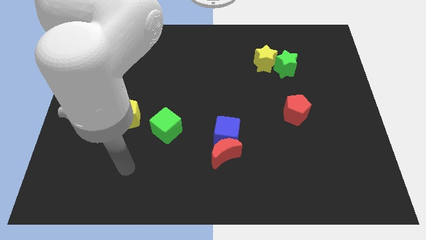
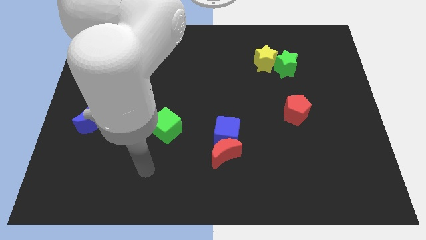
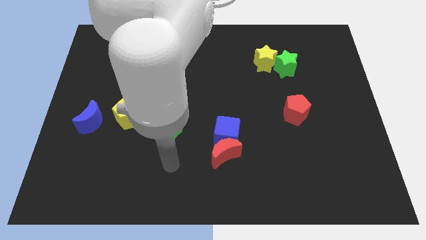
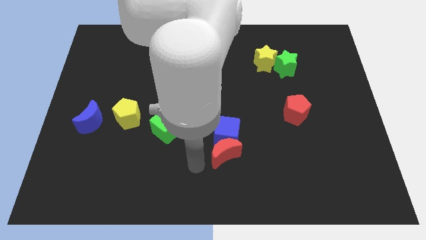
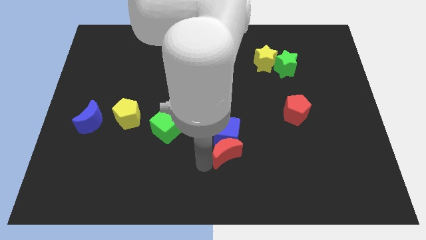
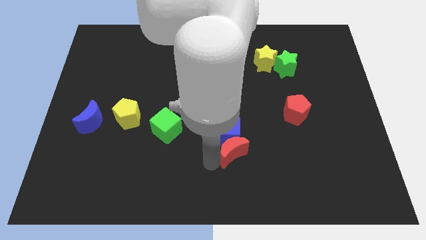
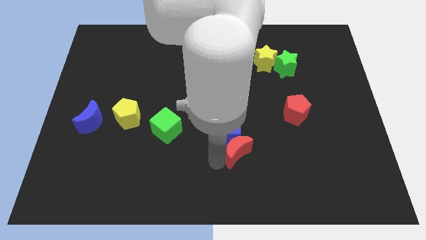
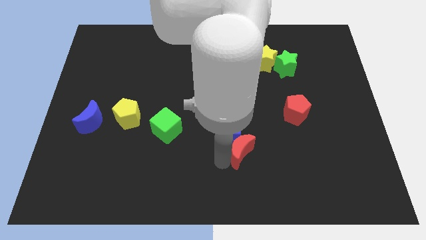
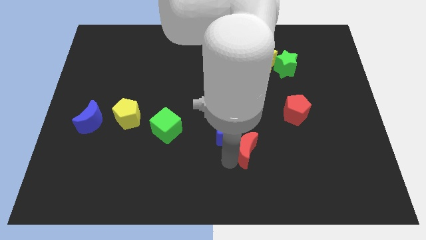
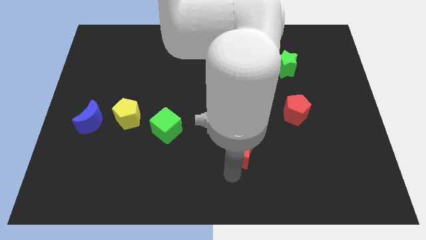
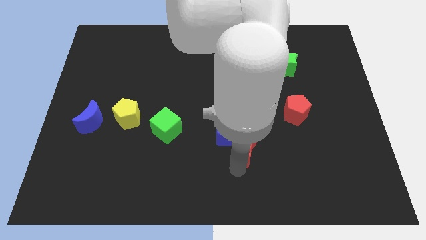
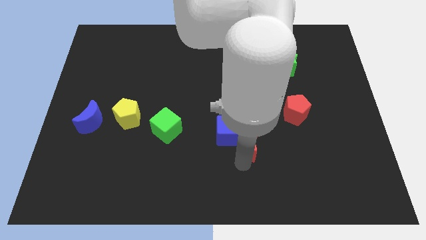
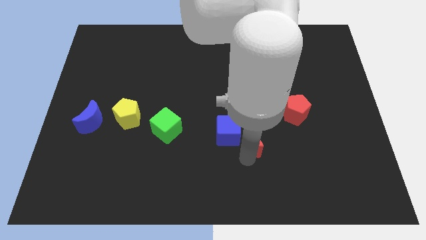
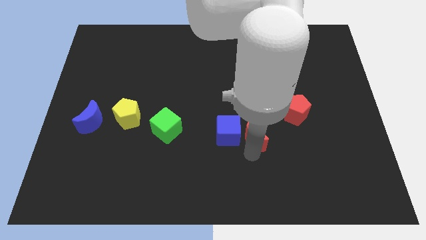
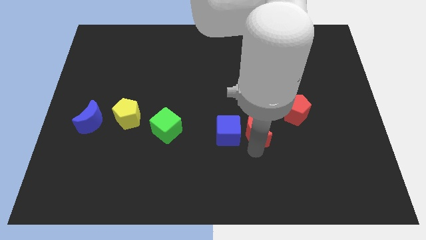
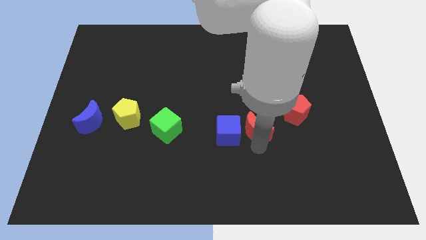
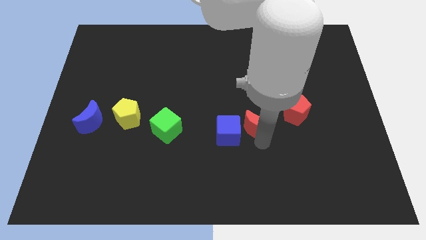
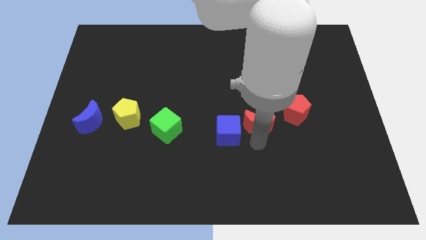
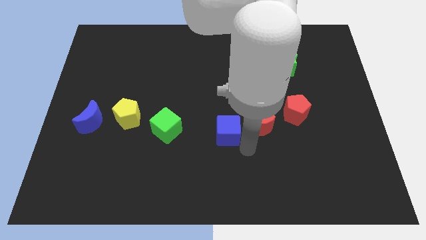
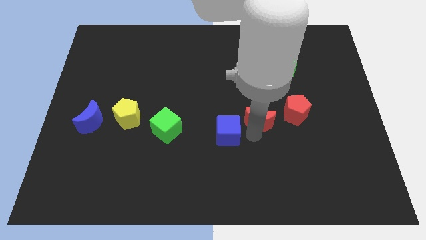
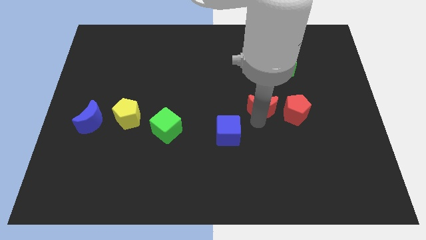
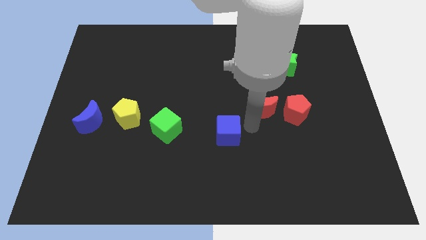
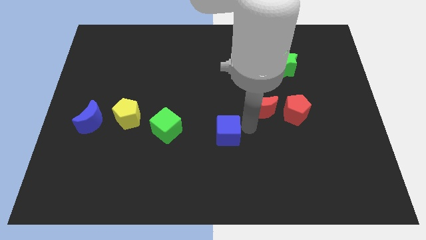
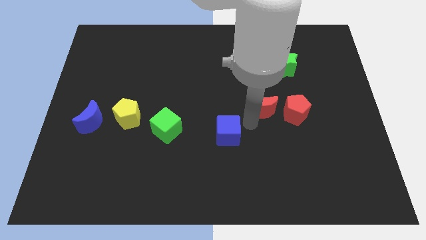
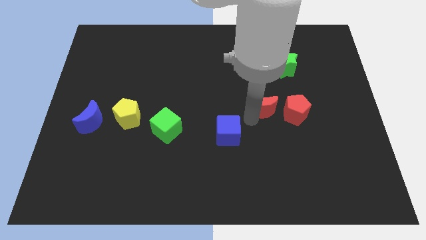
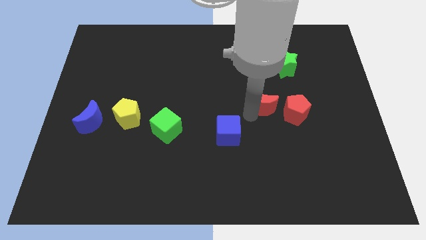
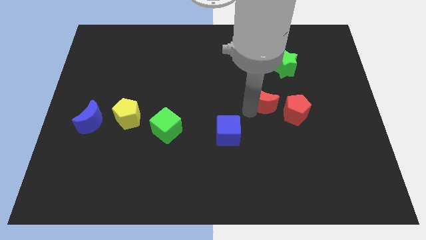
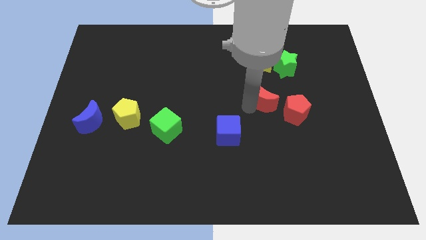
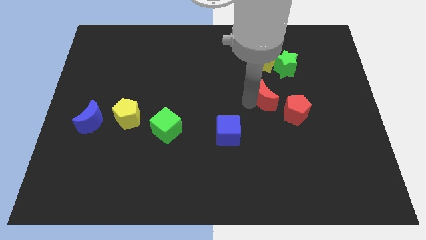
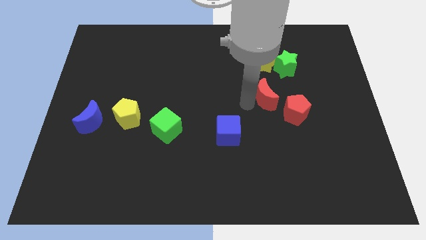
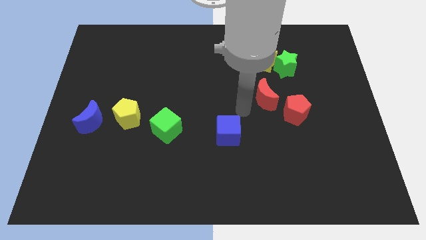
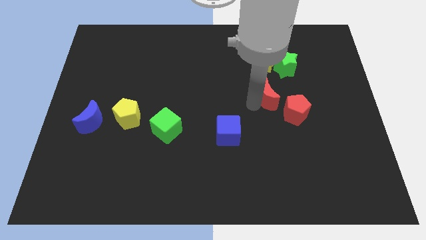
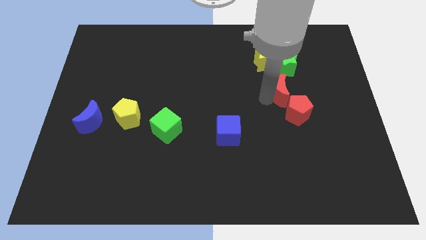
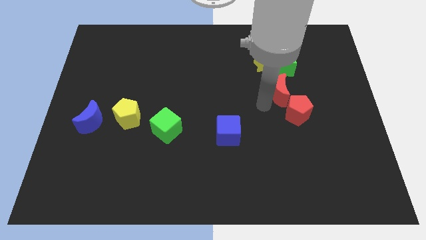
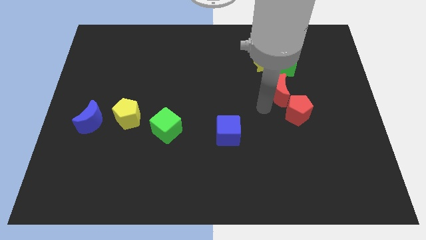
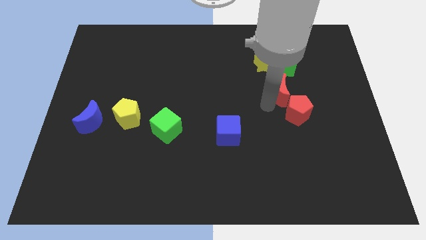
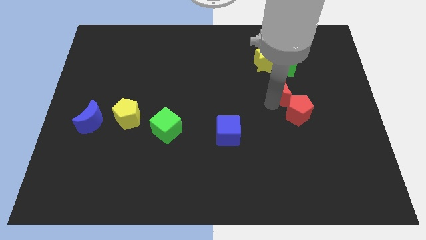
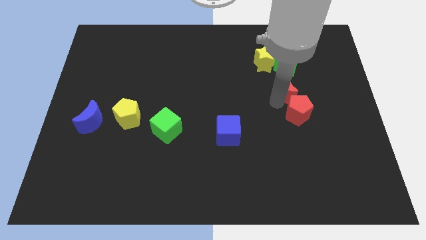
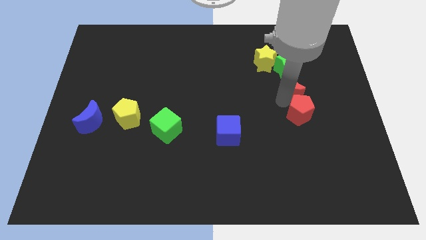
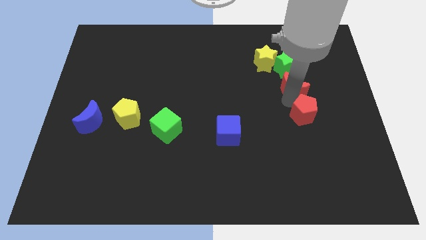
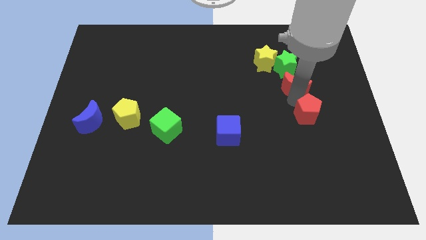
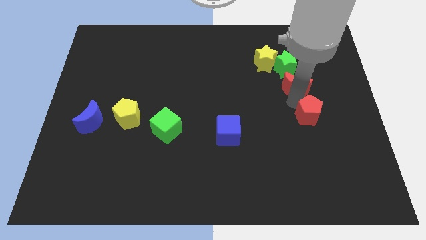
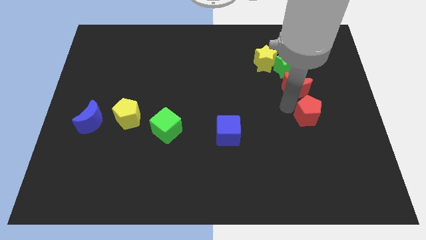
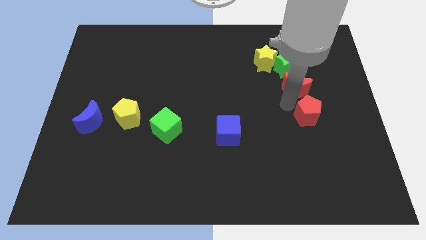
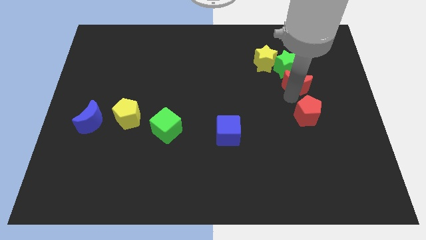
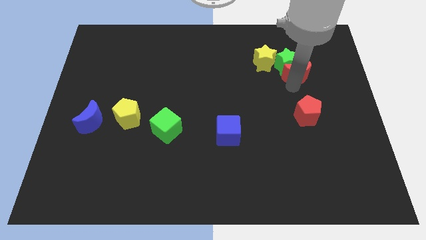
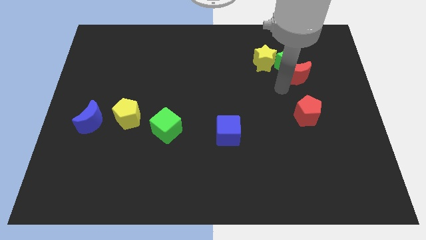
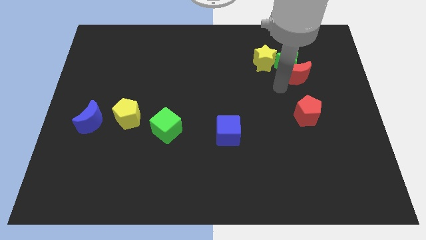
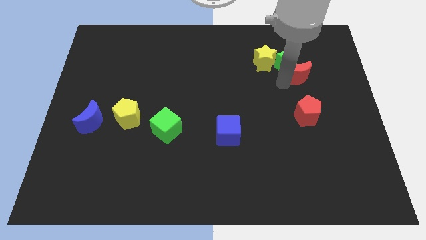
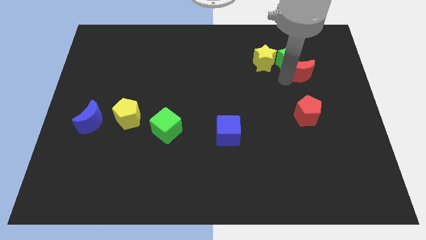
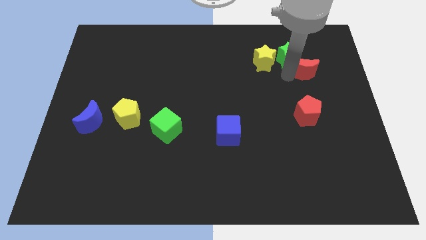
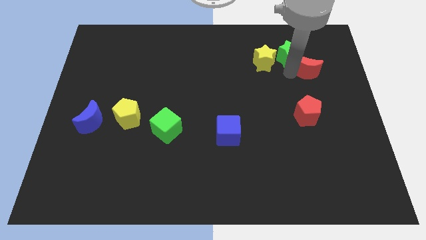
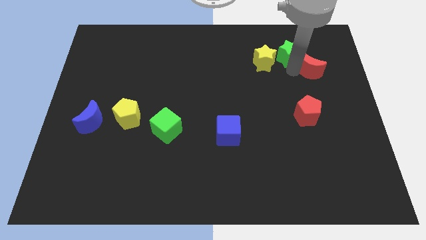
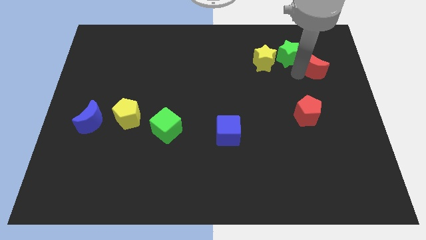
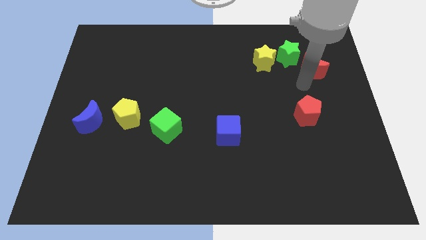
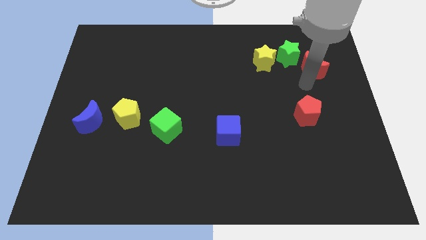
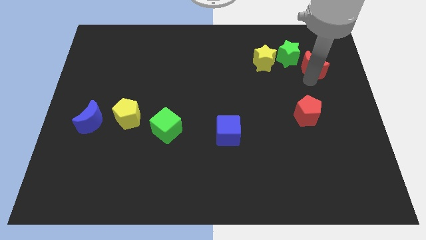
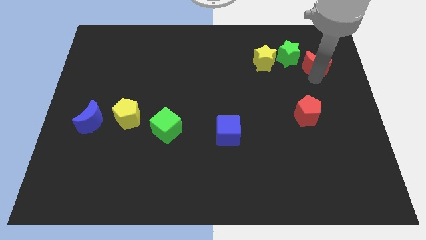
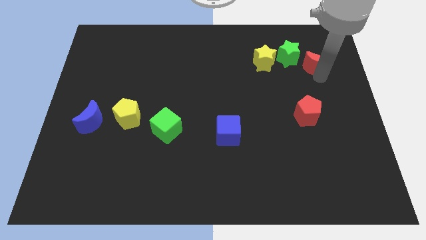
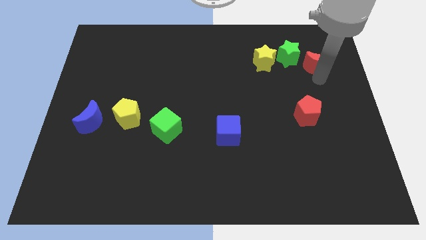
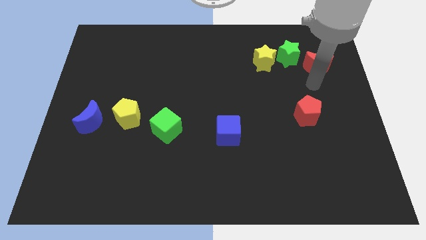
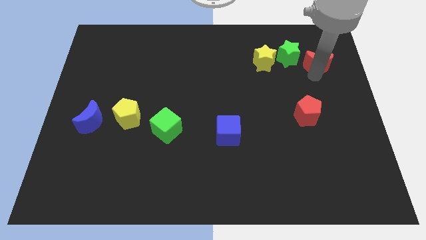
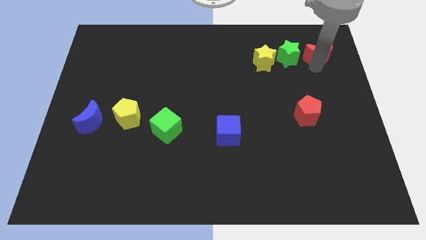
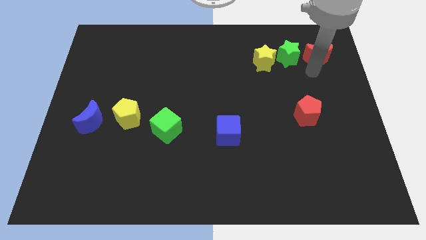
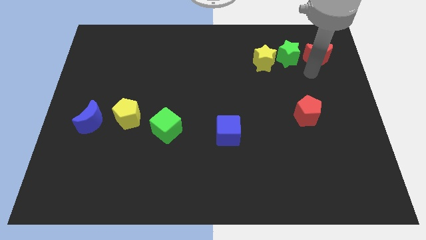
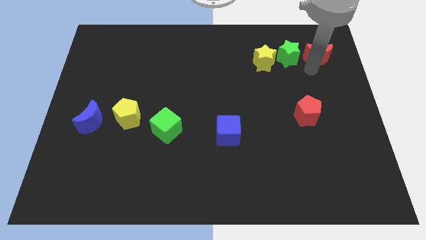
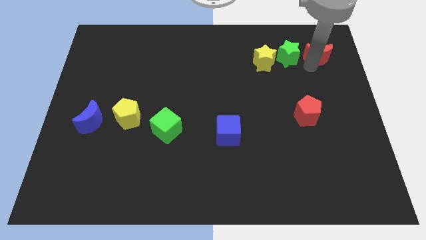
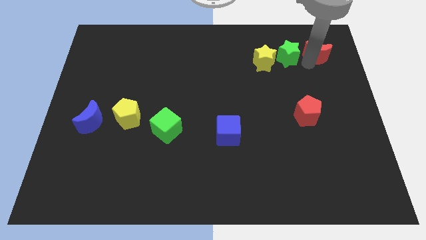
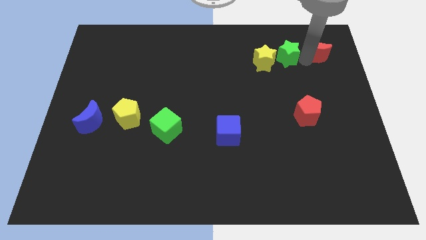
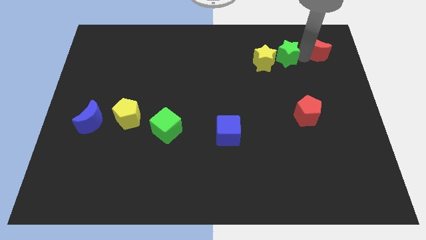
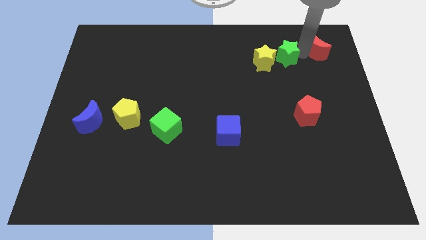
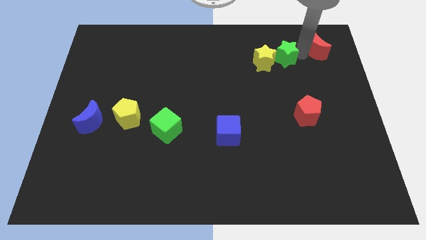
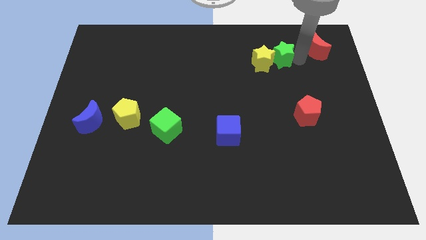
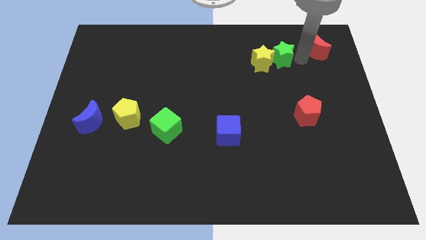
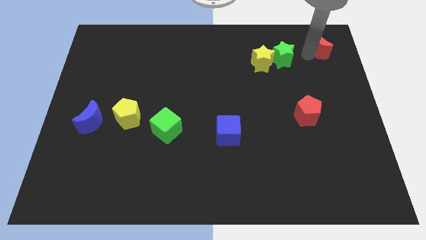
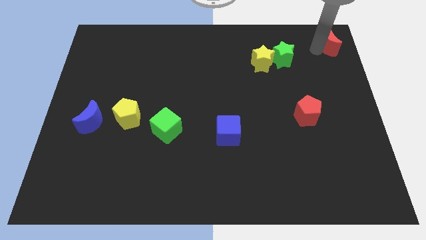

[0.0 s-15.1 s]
slide the red moon to the top right corner

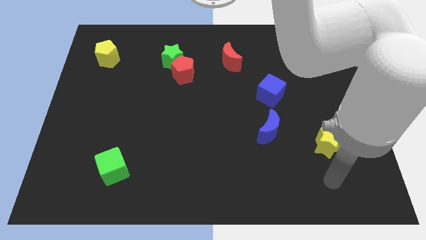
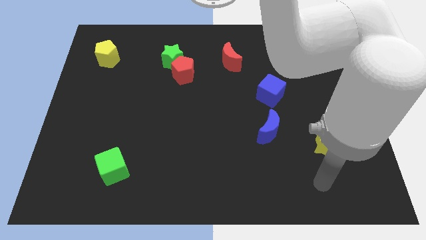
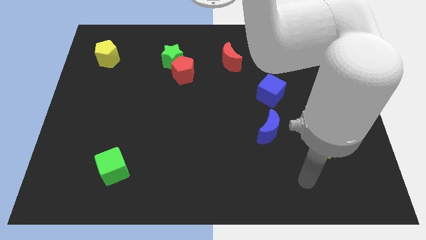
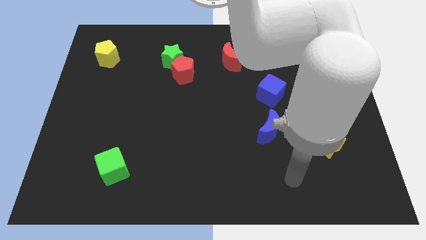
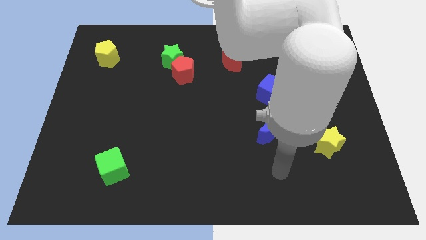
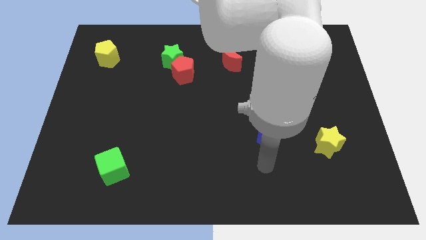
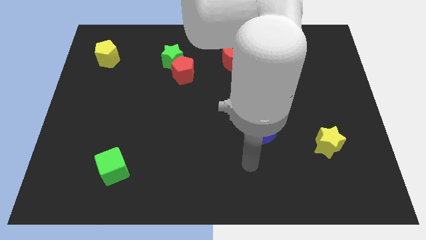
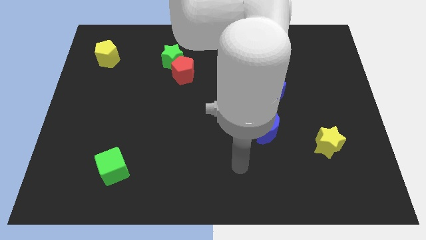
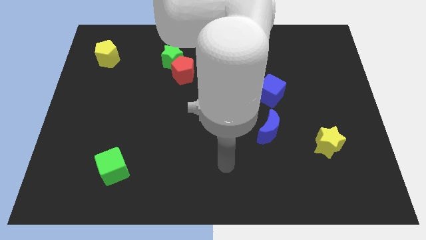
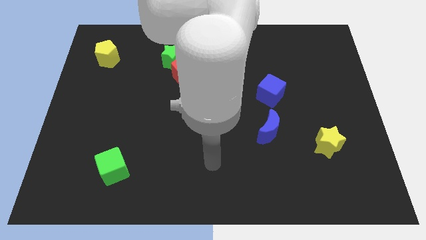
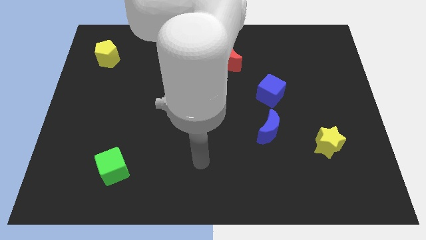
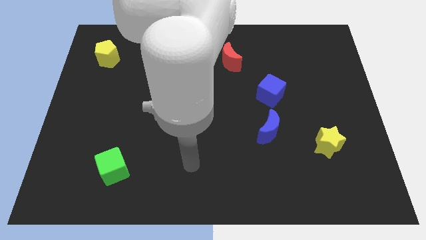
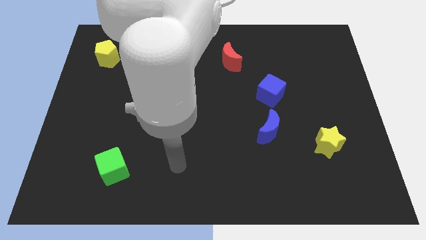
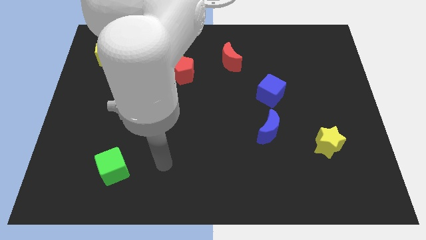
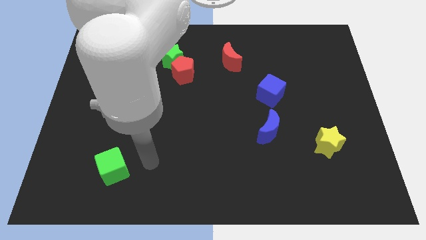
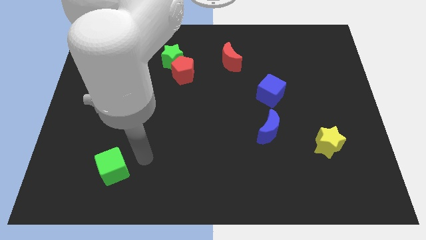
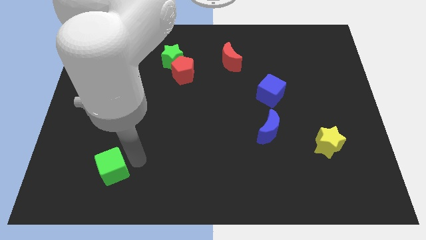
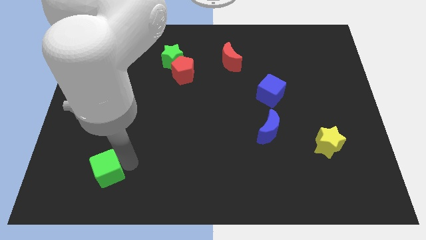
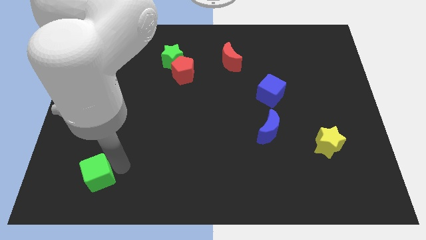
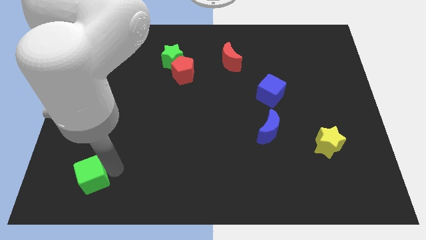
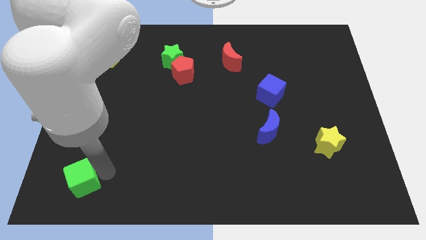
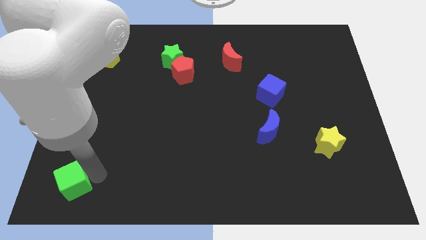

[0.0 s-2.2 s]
move the green cube to the bottom left of the board
